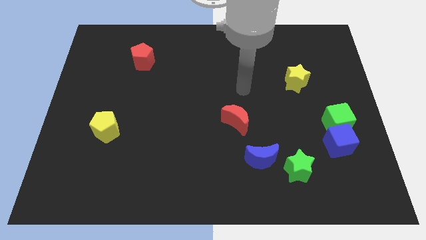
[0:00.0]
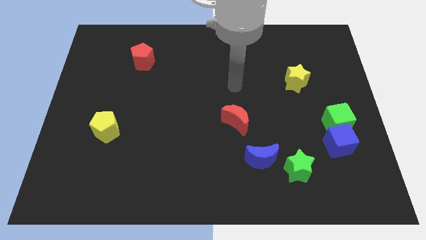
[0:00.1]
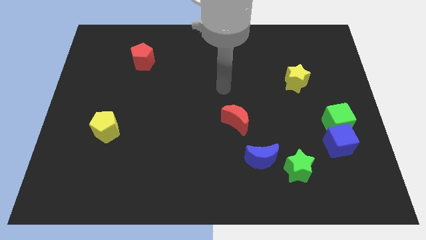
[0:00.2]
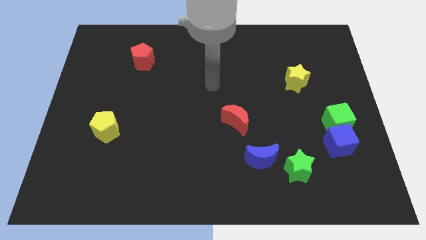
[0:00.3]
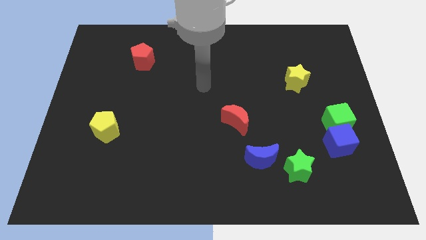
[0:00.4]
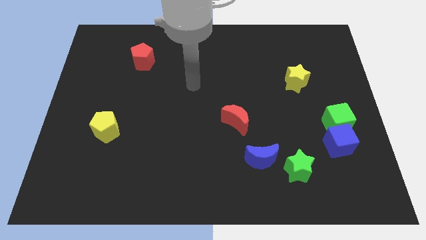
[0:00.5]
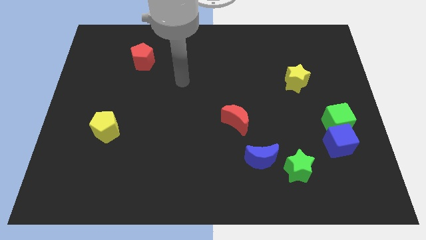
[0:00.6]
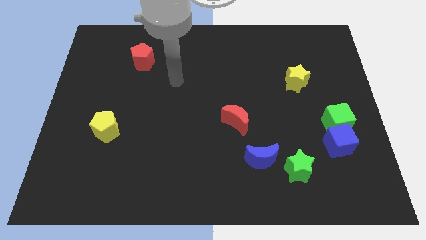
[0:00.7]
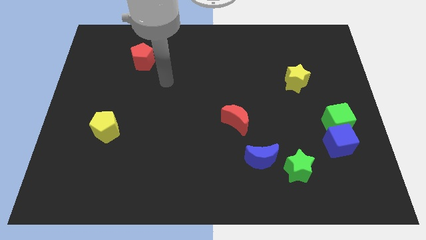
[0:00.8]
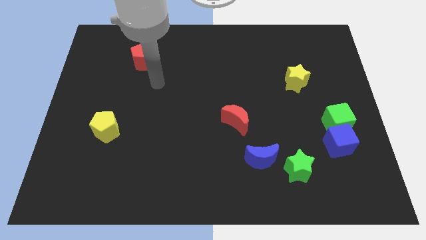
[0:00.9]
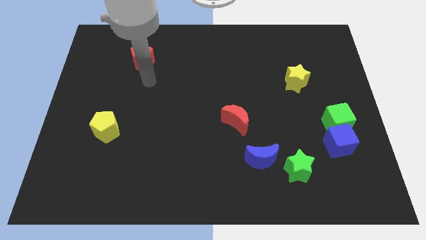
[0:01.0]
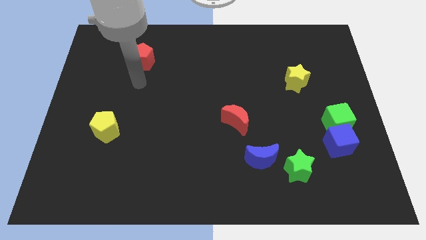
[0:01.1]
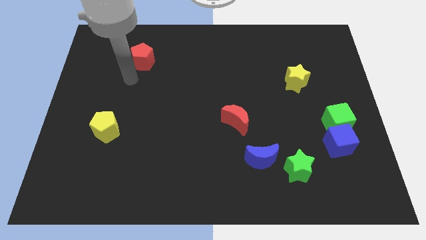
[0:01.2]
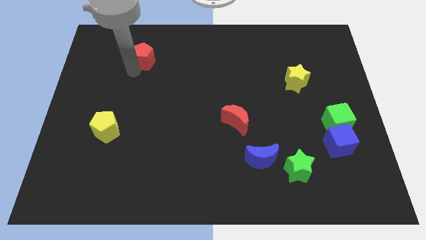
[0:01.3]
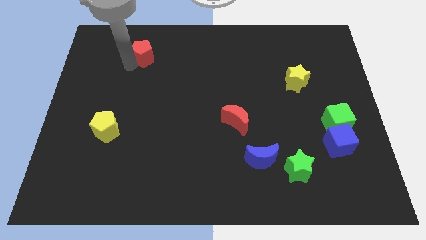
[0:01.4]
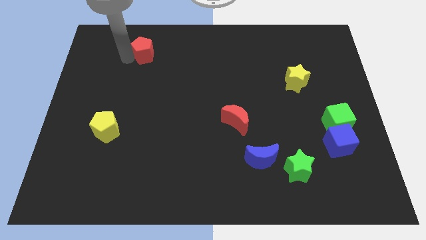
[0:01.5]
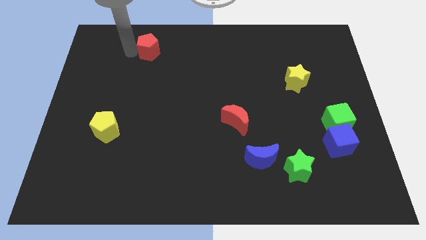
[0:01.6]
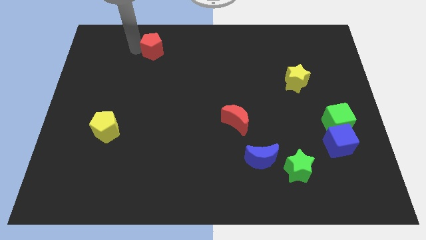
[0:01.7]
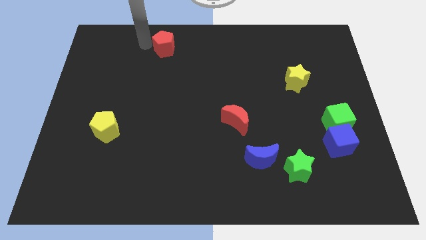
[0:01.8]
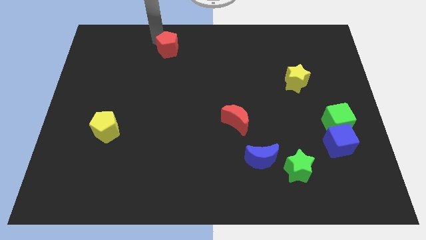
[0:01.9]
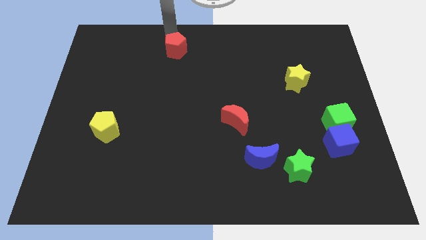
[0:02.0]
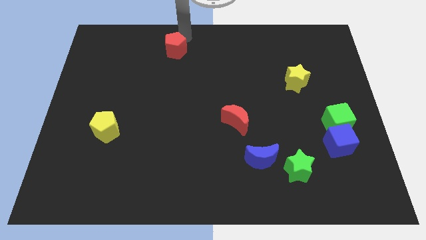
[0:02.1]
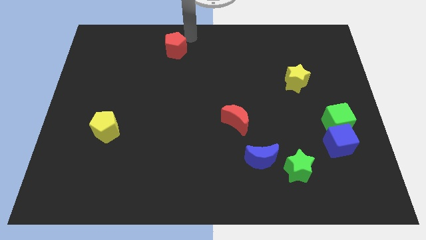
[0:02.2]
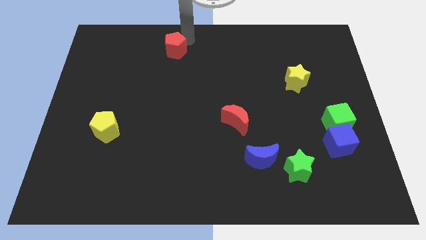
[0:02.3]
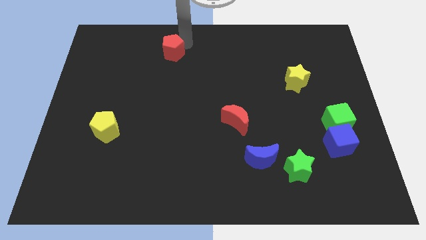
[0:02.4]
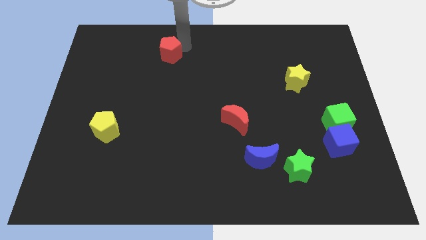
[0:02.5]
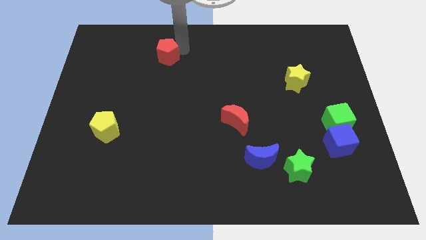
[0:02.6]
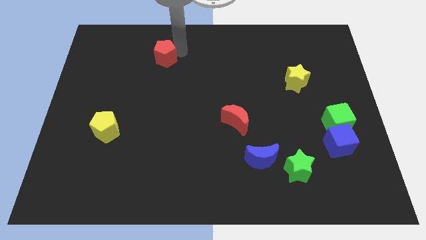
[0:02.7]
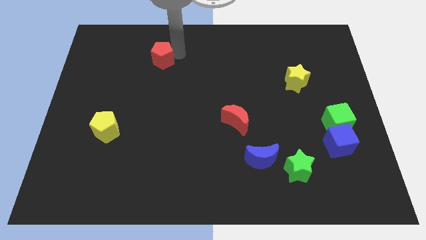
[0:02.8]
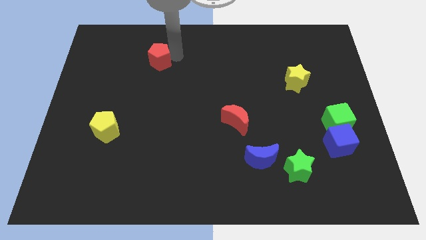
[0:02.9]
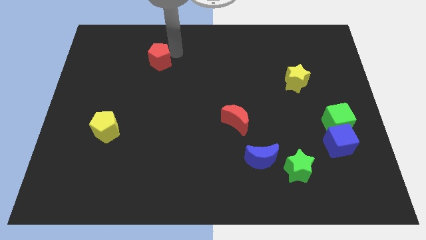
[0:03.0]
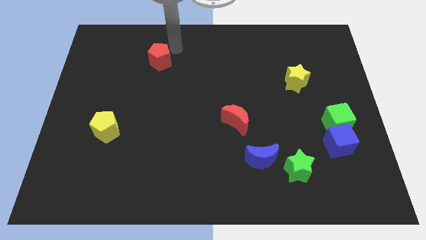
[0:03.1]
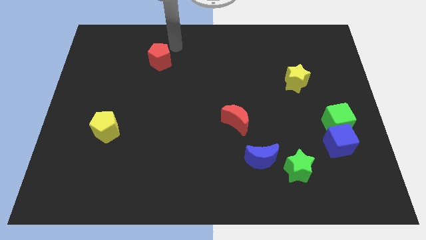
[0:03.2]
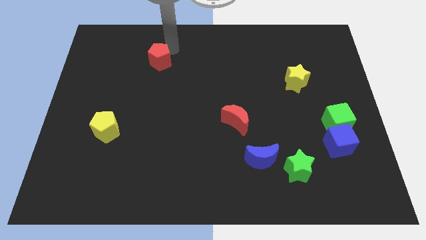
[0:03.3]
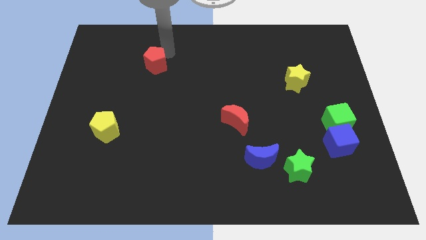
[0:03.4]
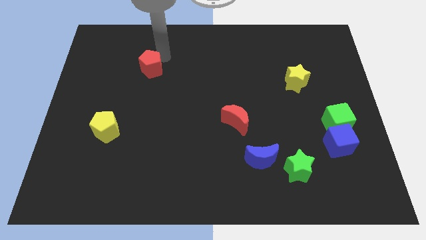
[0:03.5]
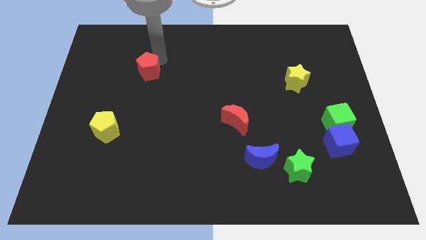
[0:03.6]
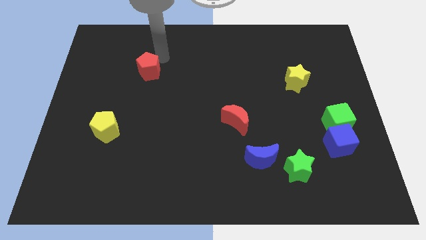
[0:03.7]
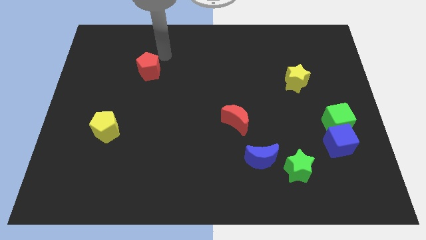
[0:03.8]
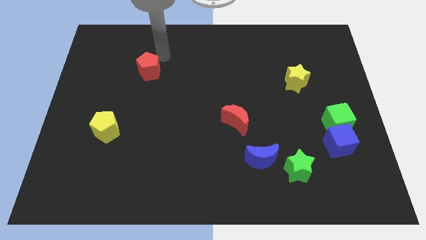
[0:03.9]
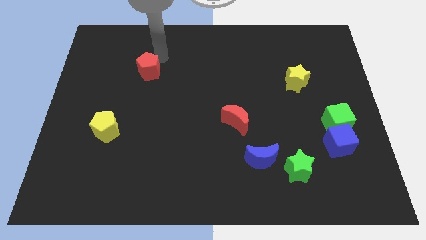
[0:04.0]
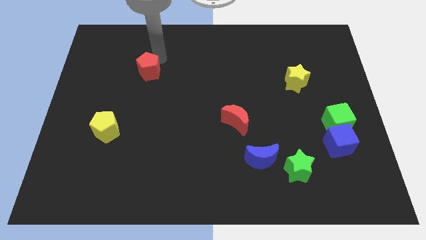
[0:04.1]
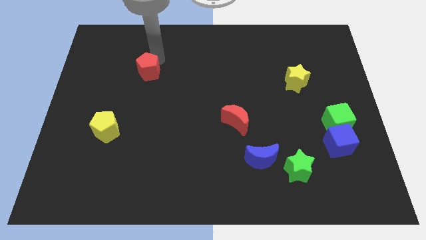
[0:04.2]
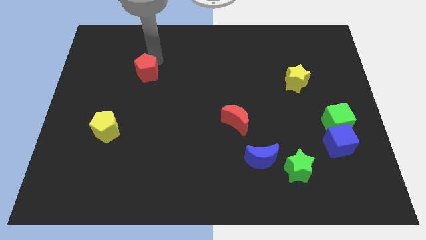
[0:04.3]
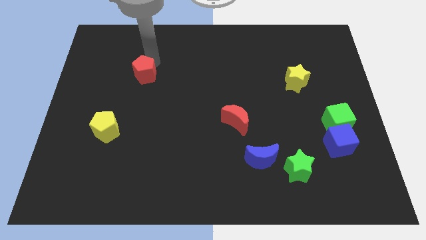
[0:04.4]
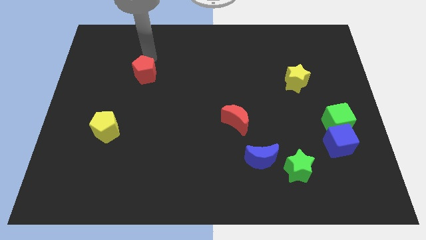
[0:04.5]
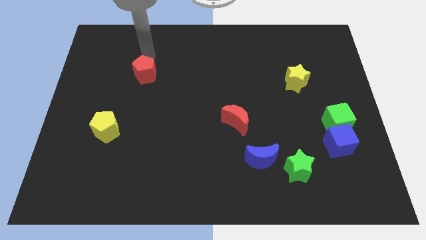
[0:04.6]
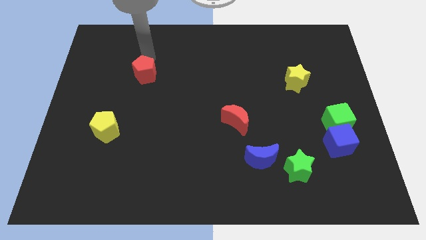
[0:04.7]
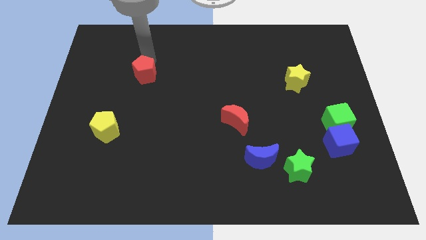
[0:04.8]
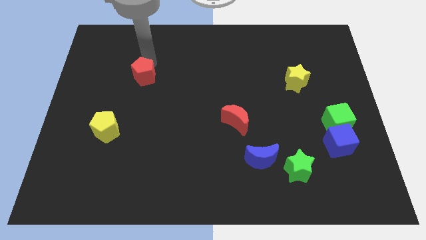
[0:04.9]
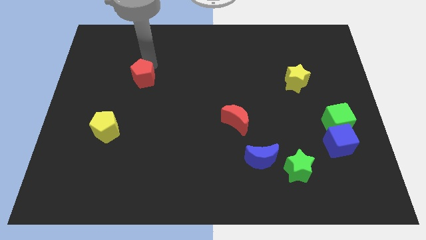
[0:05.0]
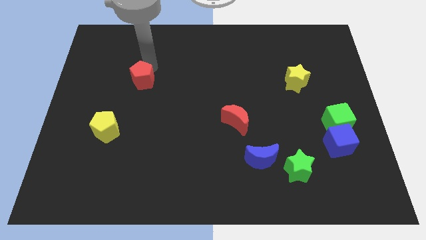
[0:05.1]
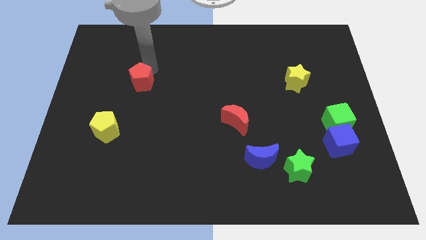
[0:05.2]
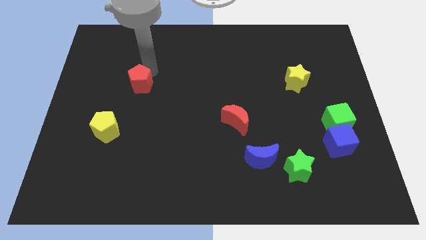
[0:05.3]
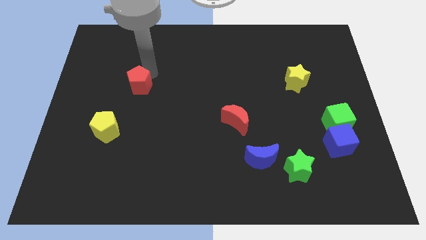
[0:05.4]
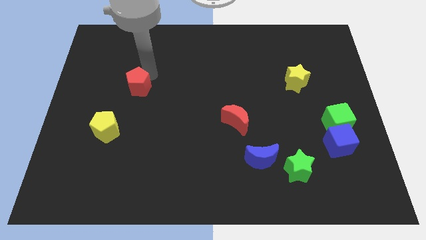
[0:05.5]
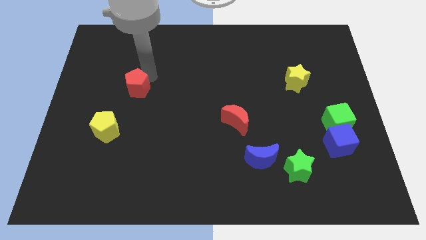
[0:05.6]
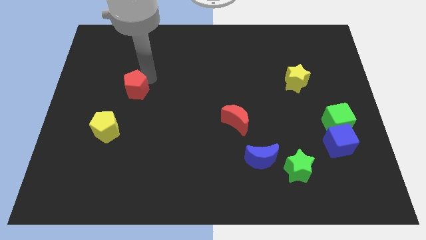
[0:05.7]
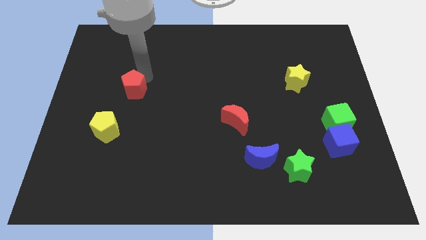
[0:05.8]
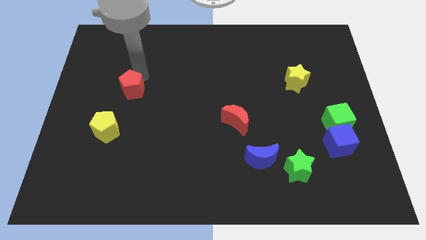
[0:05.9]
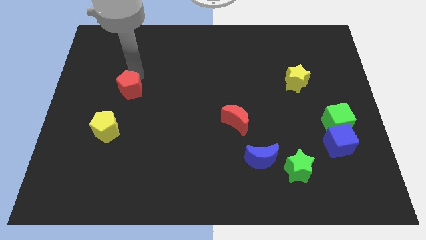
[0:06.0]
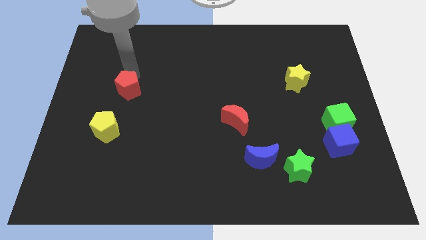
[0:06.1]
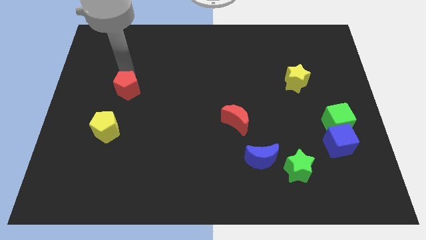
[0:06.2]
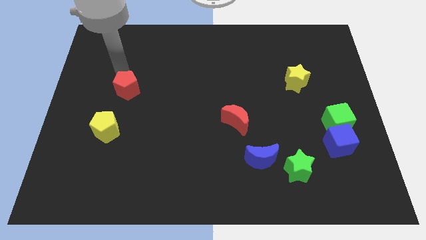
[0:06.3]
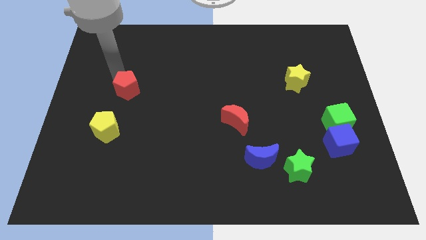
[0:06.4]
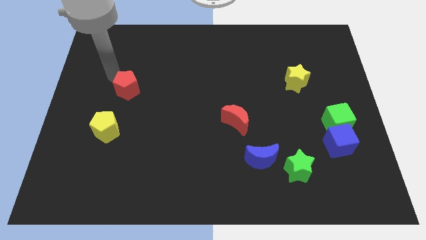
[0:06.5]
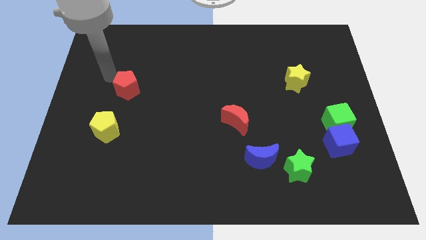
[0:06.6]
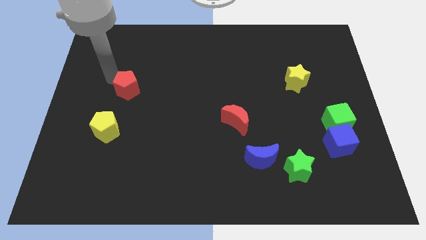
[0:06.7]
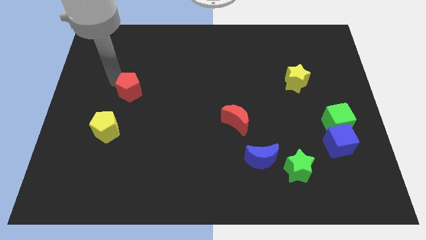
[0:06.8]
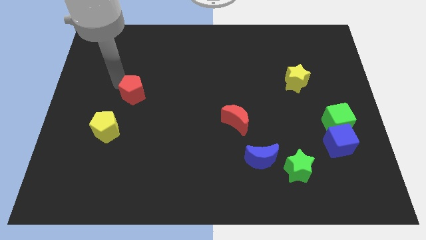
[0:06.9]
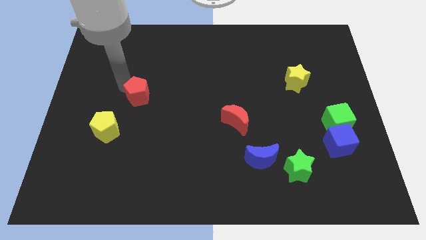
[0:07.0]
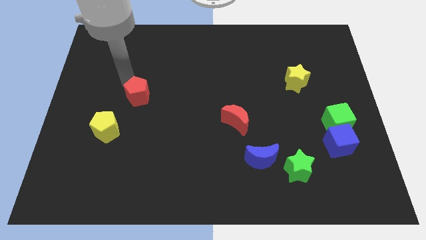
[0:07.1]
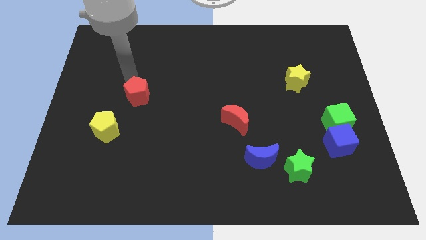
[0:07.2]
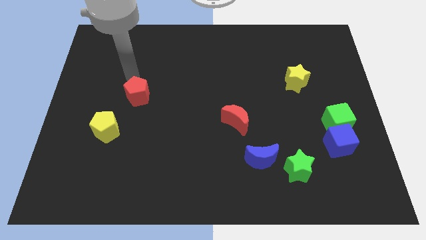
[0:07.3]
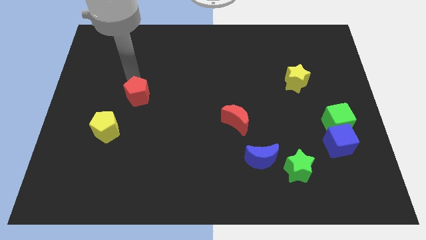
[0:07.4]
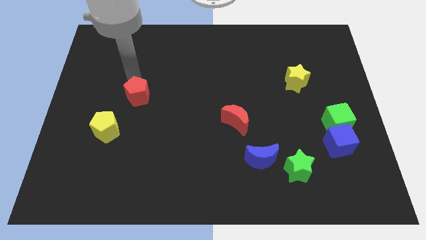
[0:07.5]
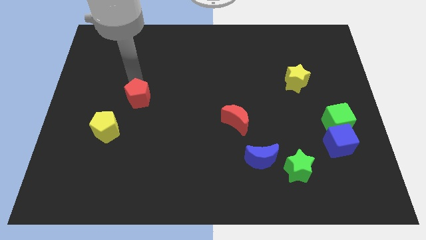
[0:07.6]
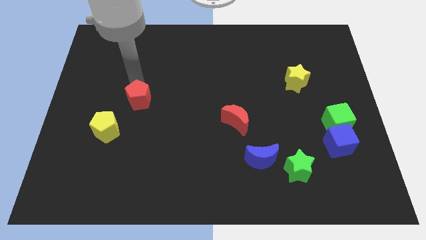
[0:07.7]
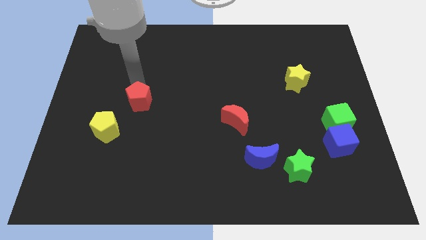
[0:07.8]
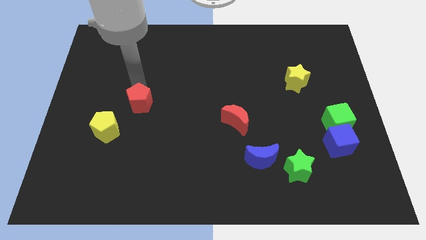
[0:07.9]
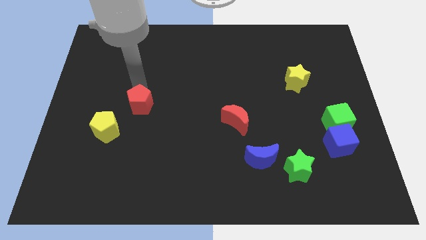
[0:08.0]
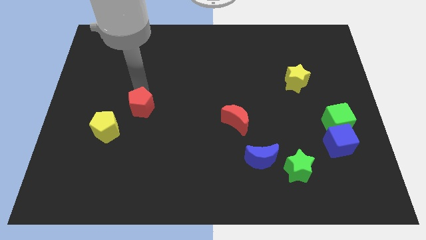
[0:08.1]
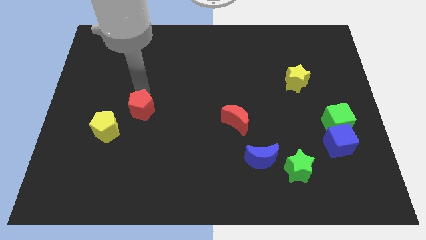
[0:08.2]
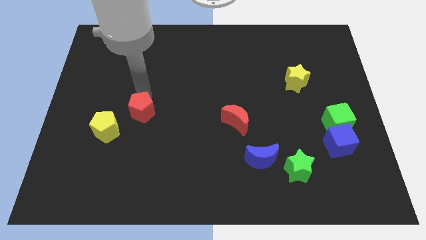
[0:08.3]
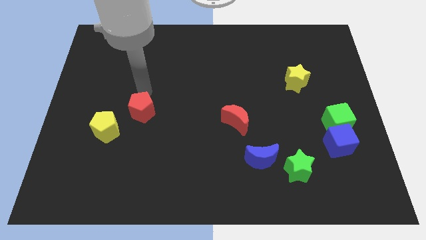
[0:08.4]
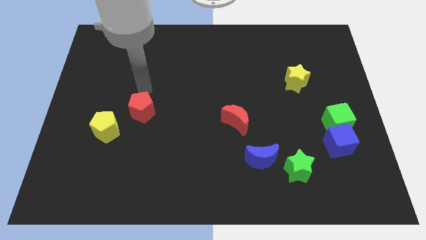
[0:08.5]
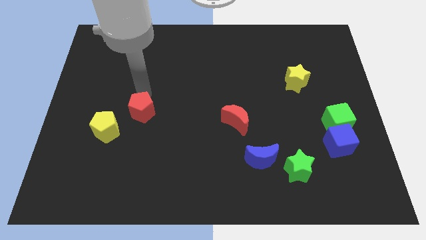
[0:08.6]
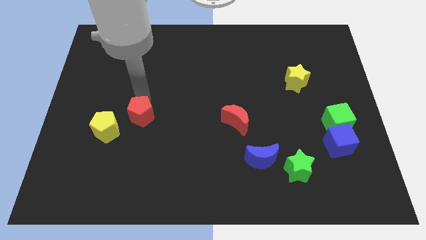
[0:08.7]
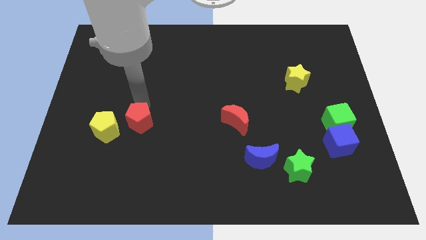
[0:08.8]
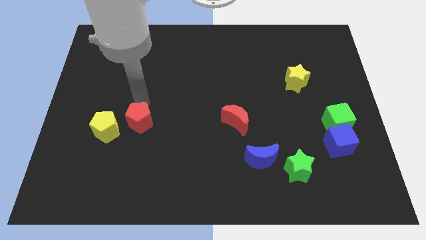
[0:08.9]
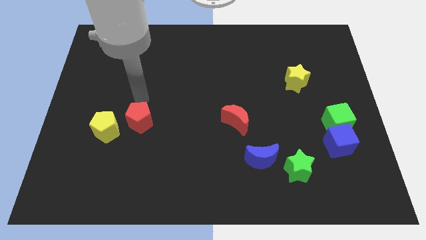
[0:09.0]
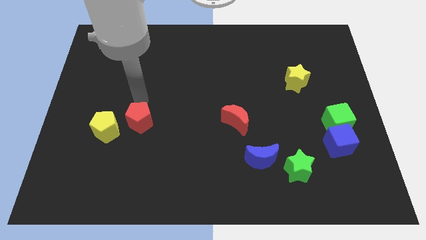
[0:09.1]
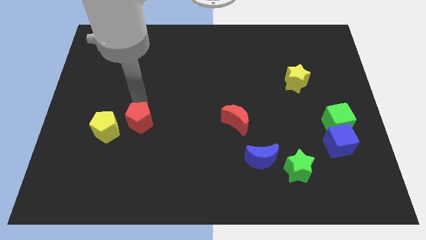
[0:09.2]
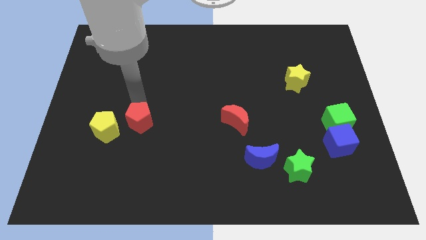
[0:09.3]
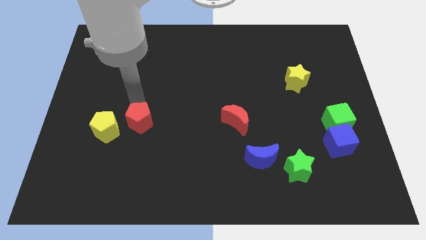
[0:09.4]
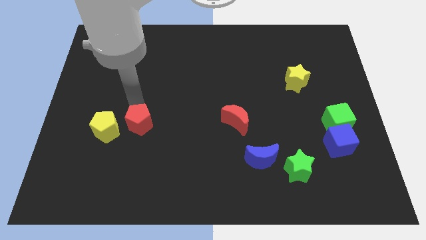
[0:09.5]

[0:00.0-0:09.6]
move the red pentagon downwards
